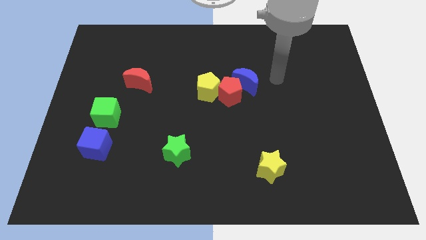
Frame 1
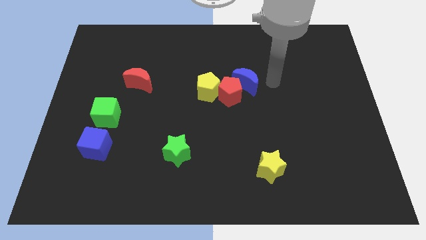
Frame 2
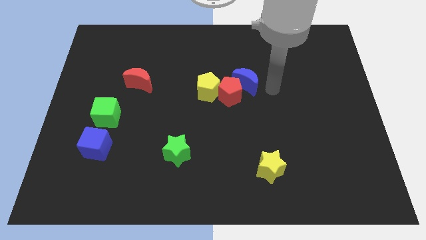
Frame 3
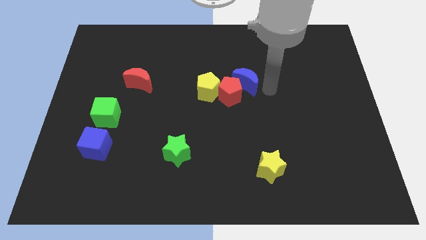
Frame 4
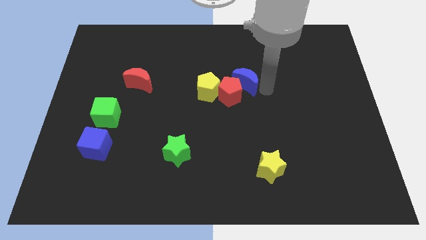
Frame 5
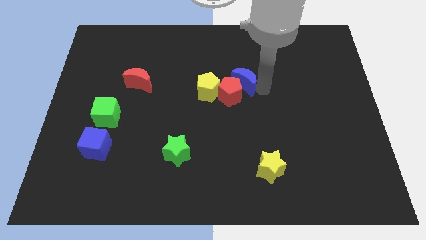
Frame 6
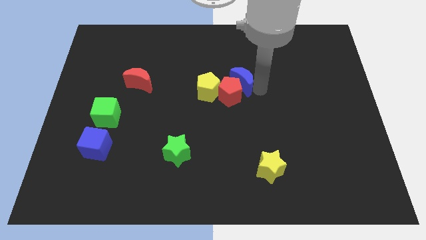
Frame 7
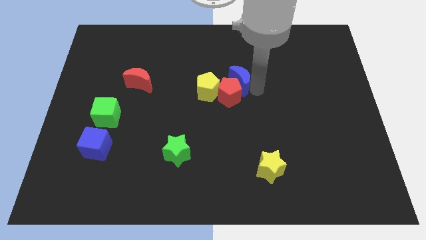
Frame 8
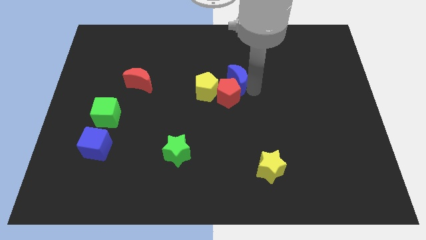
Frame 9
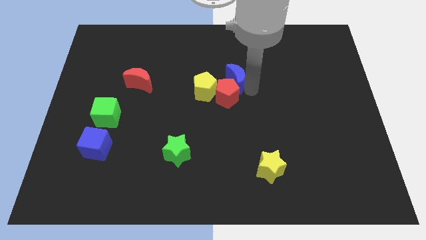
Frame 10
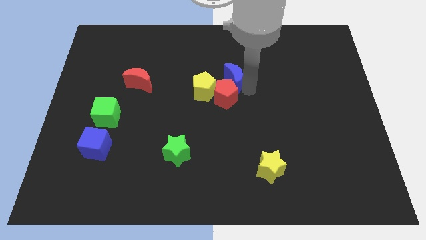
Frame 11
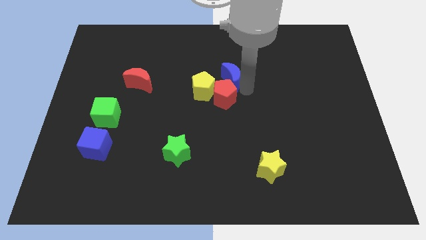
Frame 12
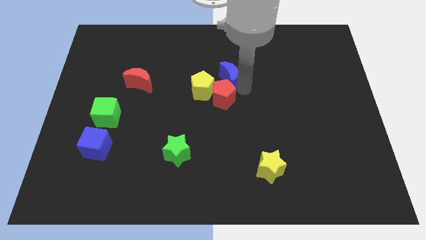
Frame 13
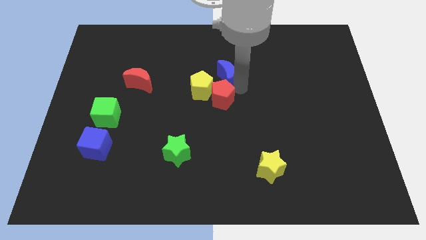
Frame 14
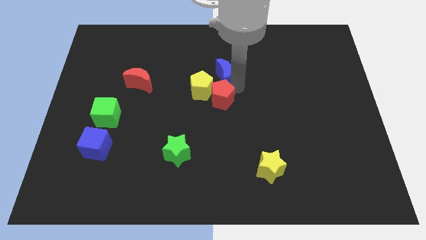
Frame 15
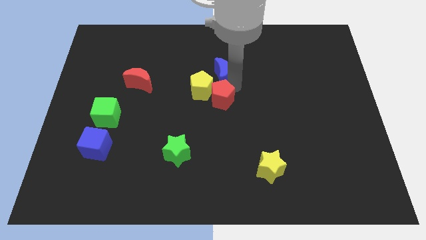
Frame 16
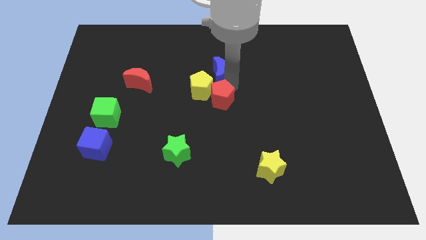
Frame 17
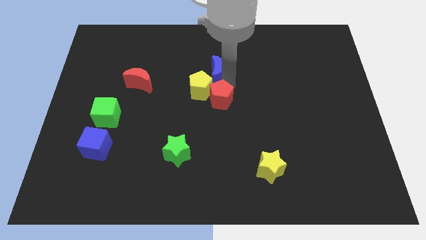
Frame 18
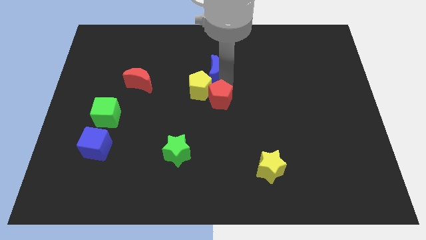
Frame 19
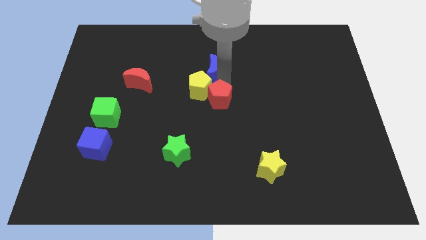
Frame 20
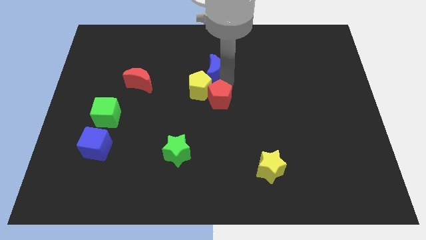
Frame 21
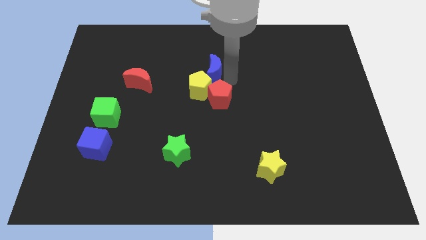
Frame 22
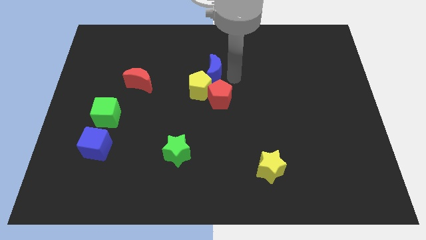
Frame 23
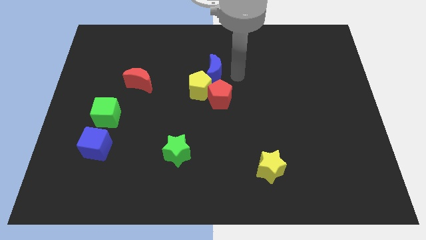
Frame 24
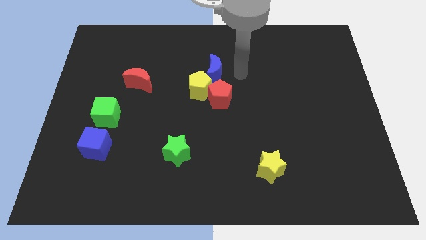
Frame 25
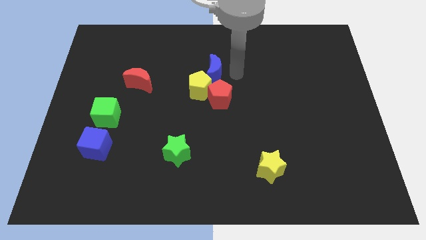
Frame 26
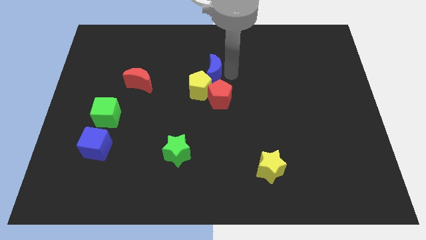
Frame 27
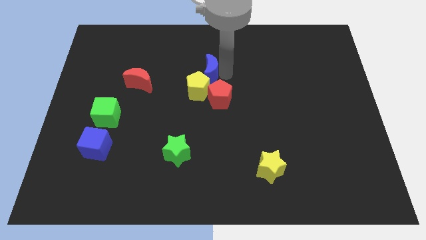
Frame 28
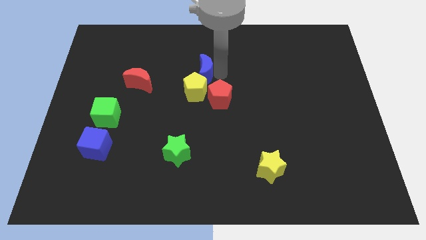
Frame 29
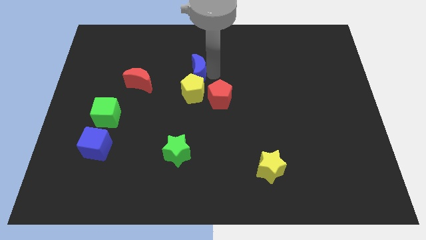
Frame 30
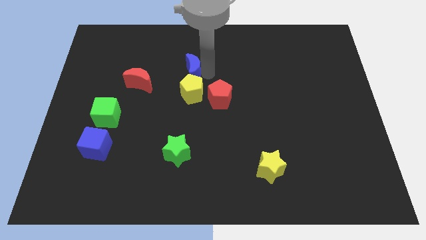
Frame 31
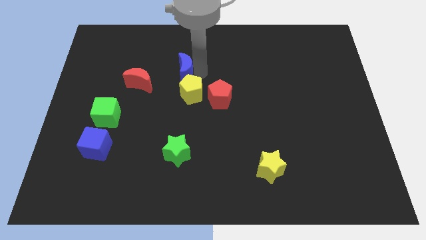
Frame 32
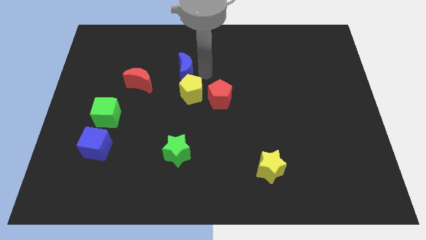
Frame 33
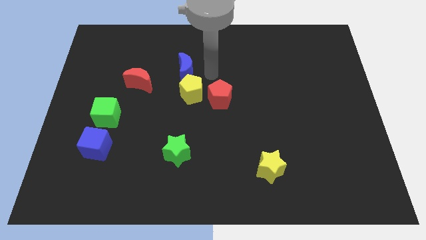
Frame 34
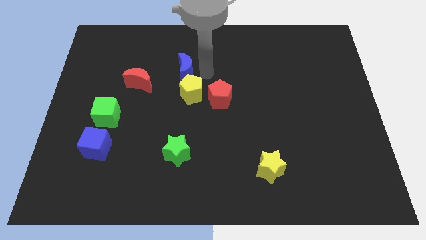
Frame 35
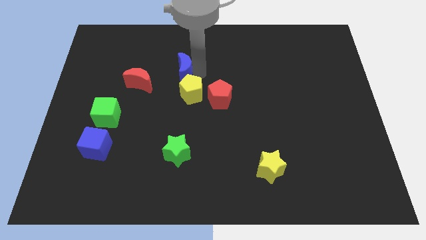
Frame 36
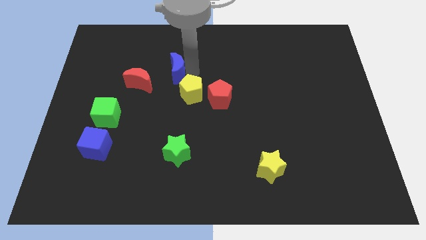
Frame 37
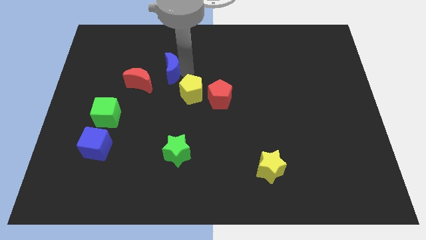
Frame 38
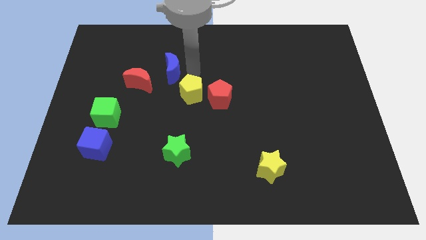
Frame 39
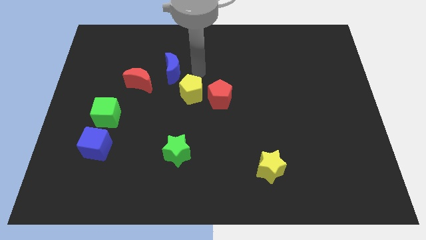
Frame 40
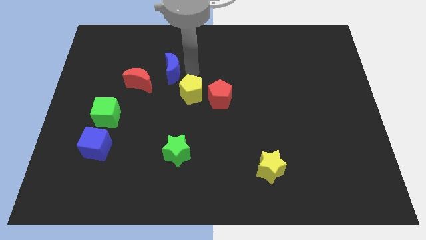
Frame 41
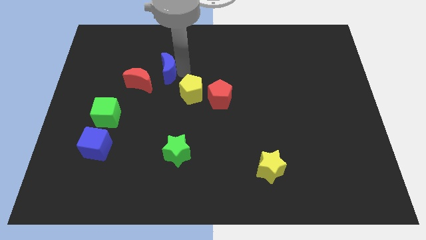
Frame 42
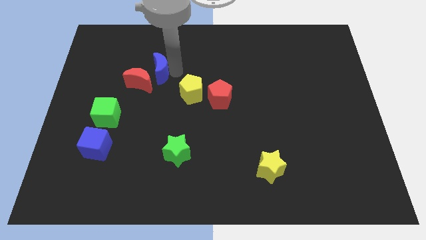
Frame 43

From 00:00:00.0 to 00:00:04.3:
slide the blue moon to the left

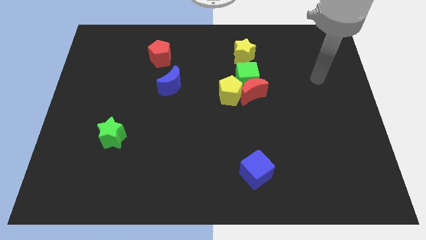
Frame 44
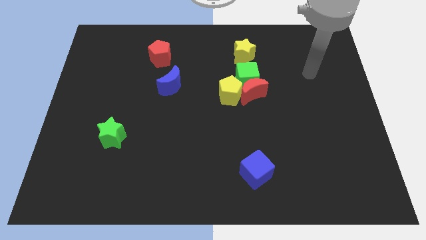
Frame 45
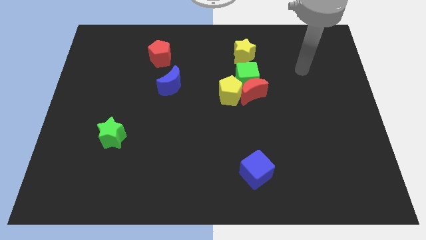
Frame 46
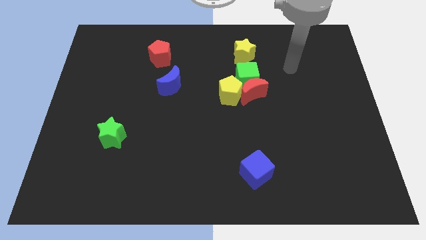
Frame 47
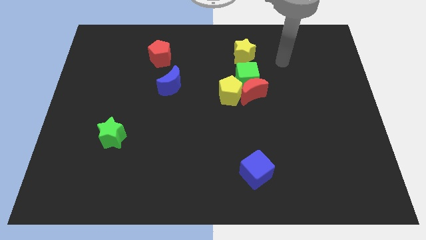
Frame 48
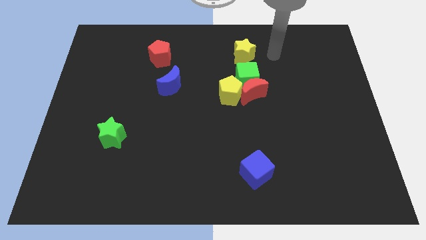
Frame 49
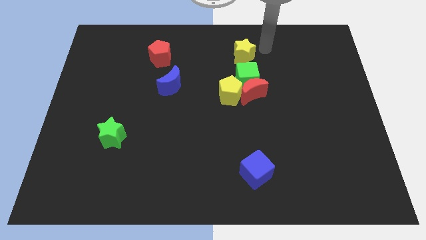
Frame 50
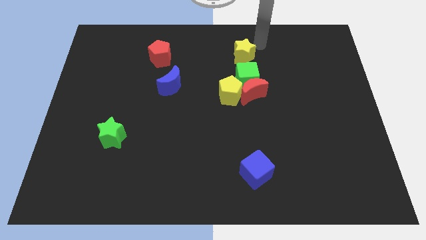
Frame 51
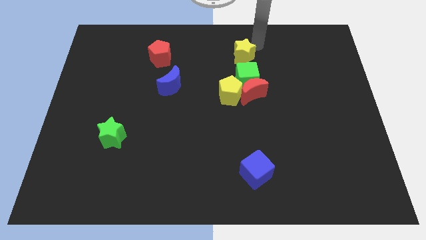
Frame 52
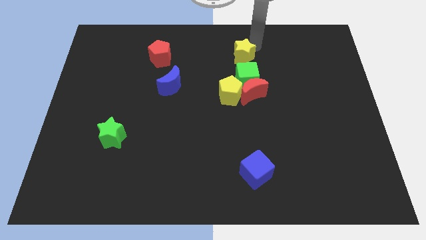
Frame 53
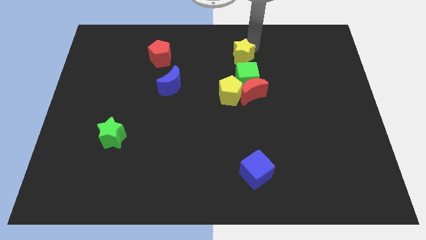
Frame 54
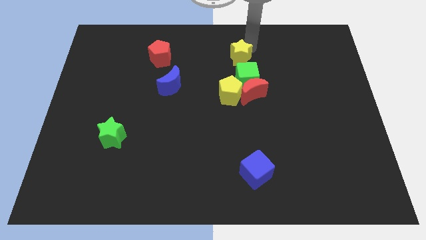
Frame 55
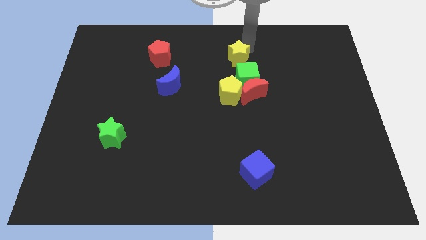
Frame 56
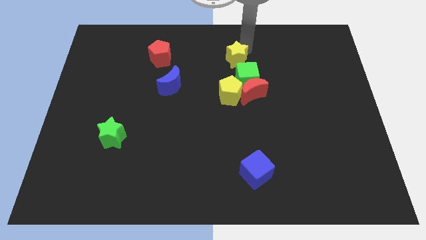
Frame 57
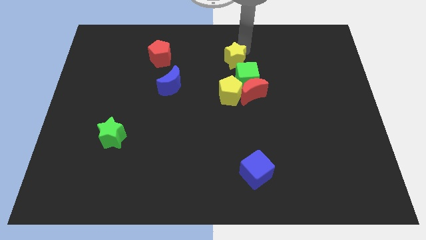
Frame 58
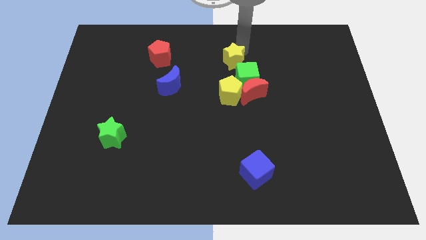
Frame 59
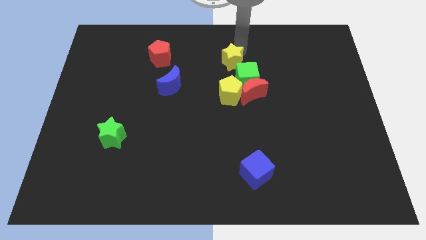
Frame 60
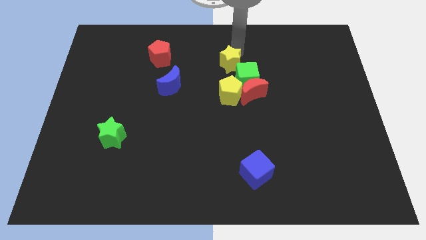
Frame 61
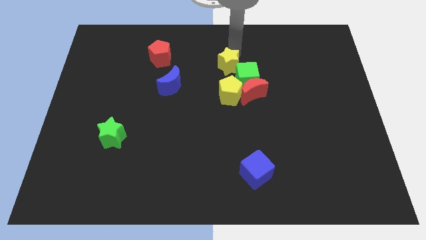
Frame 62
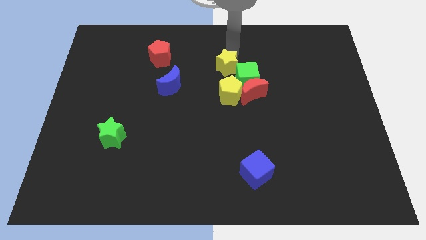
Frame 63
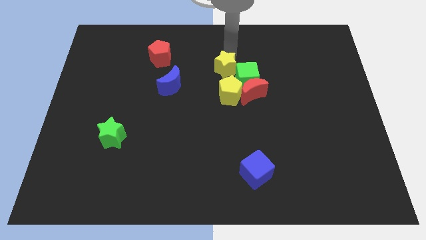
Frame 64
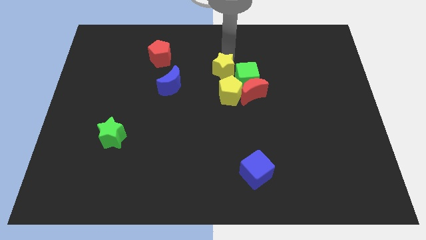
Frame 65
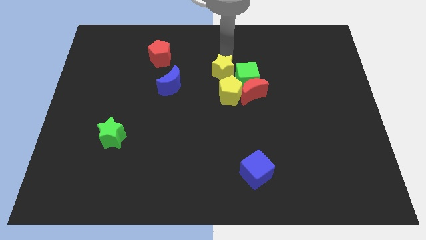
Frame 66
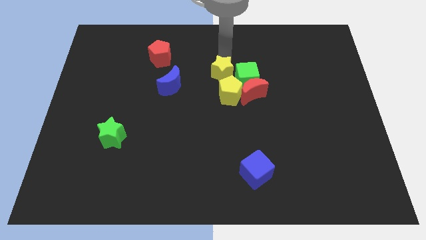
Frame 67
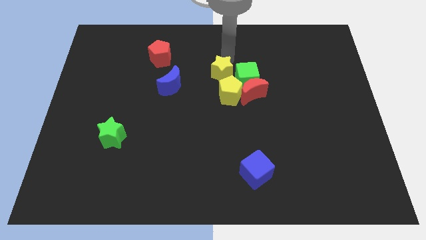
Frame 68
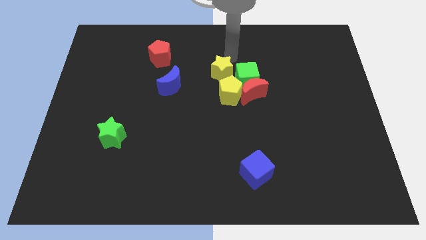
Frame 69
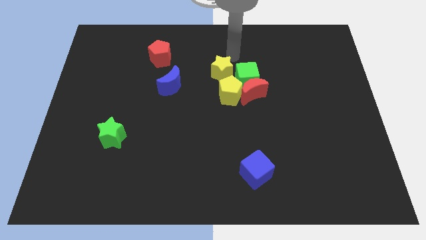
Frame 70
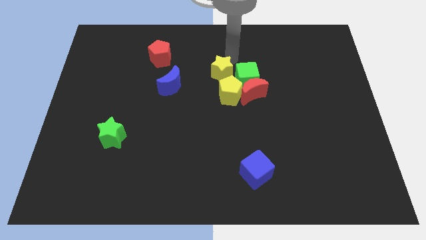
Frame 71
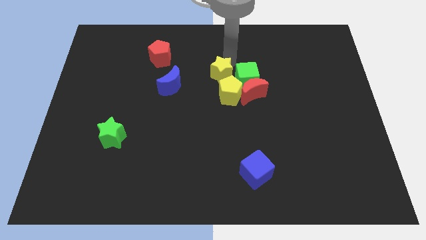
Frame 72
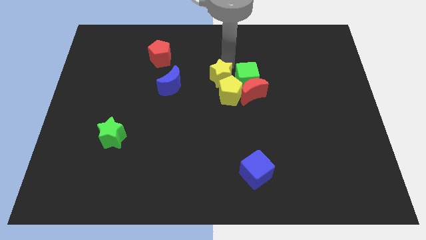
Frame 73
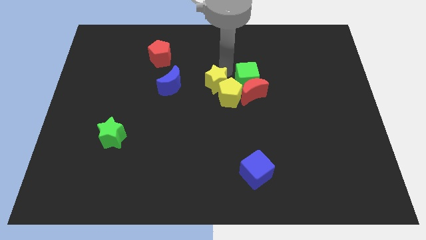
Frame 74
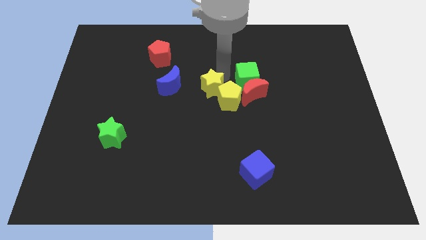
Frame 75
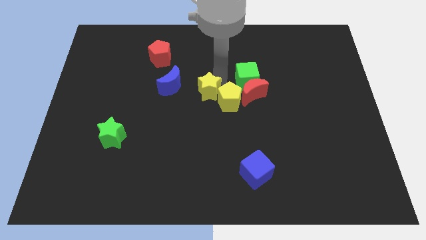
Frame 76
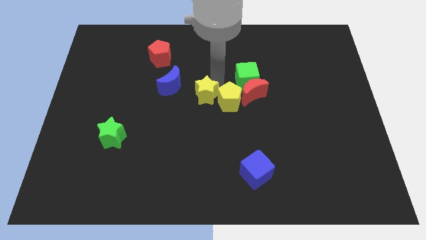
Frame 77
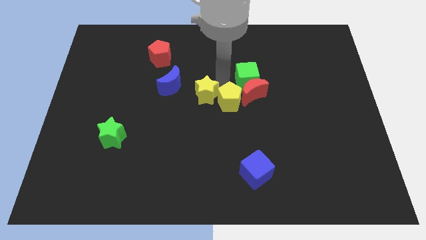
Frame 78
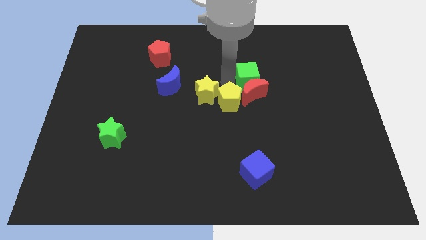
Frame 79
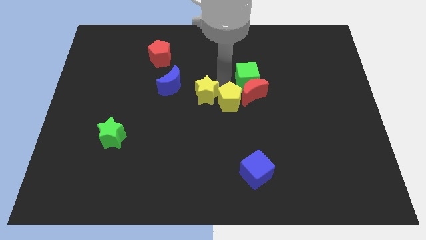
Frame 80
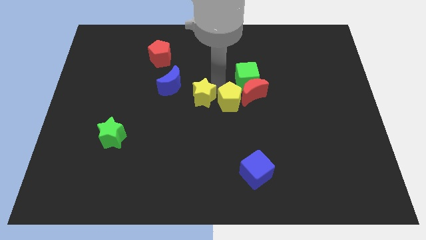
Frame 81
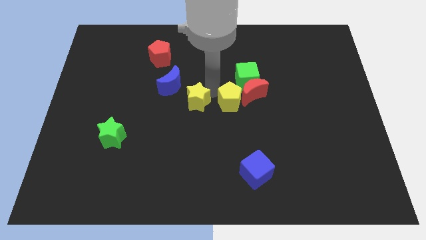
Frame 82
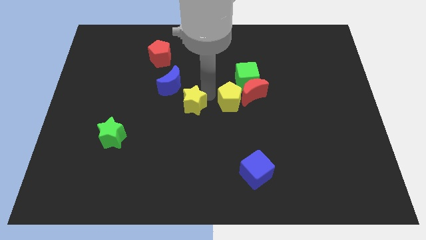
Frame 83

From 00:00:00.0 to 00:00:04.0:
move the yellow star down and then left

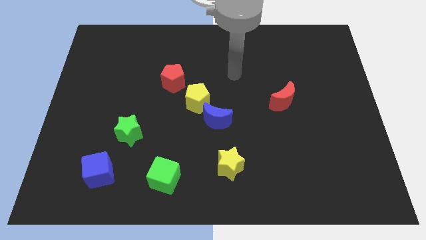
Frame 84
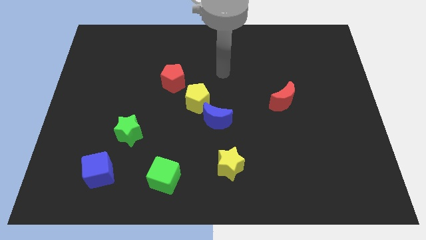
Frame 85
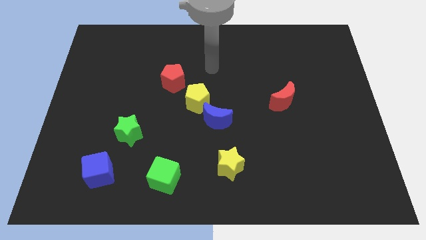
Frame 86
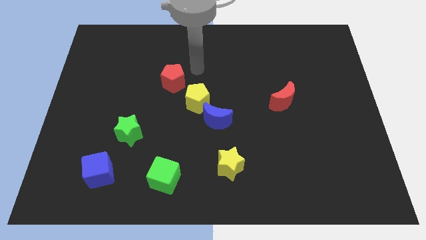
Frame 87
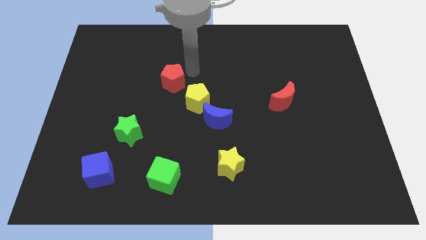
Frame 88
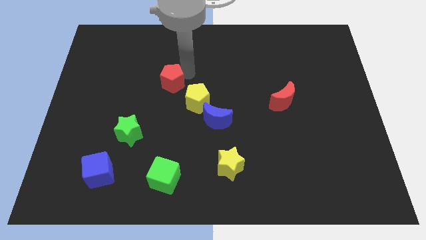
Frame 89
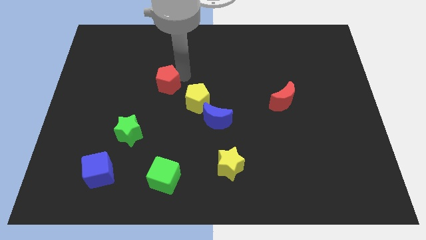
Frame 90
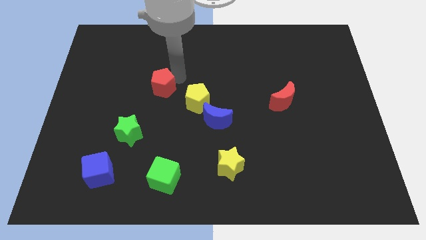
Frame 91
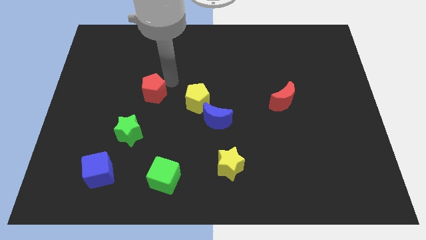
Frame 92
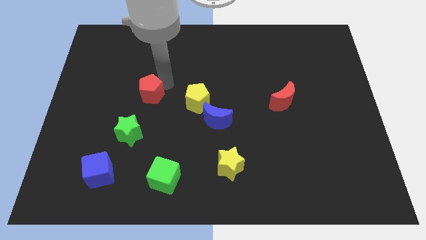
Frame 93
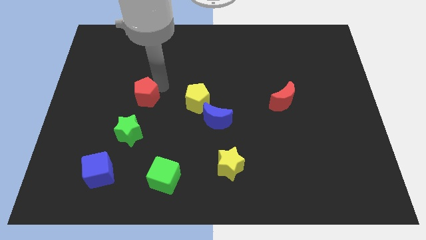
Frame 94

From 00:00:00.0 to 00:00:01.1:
move the red pentagon down and to the left slightly
